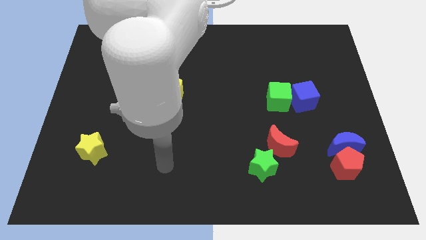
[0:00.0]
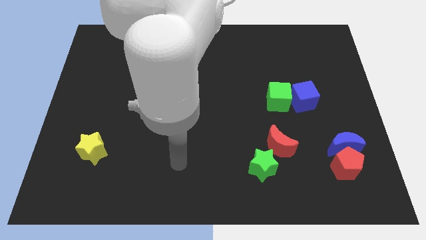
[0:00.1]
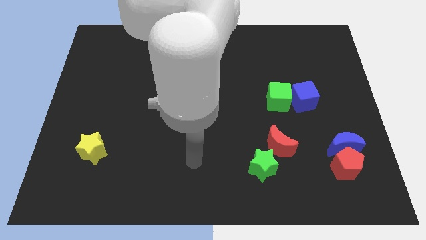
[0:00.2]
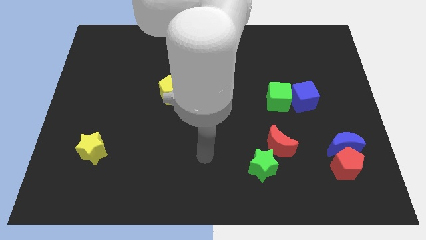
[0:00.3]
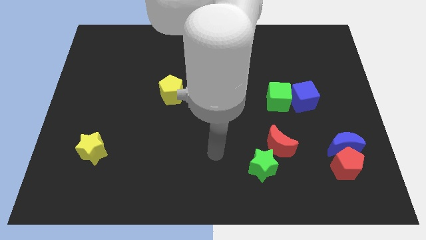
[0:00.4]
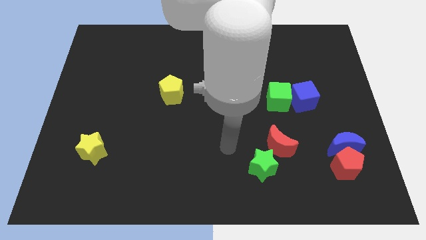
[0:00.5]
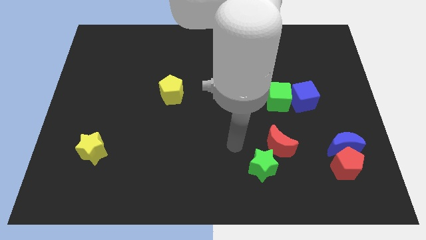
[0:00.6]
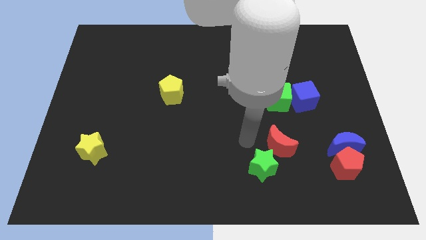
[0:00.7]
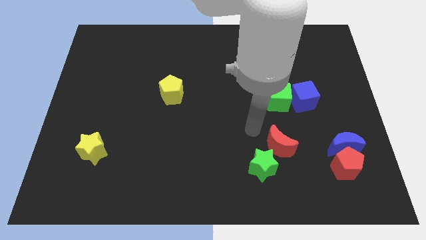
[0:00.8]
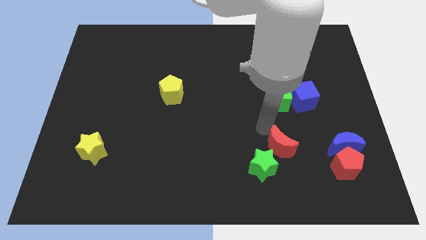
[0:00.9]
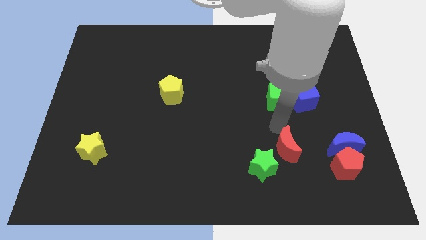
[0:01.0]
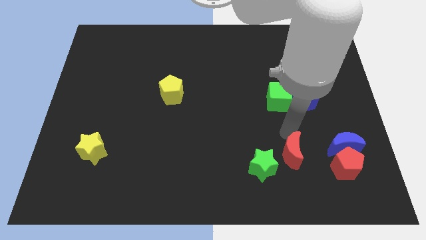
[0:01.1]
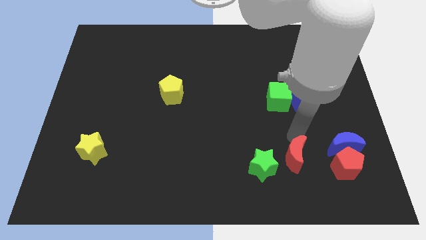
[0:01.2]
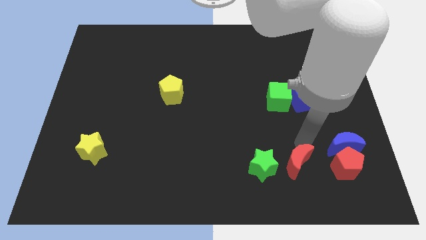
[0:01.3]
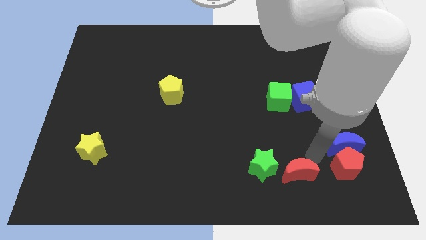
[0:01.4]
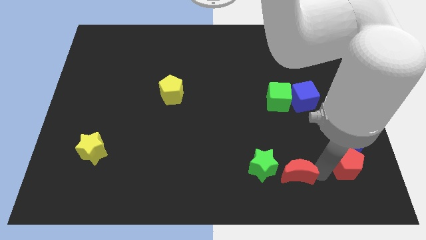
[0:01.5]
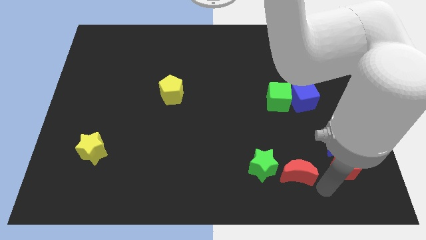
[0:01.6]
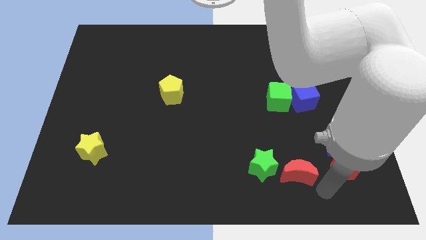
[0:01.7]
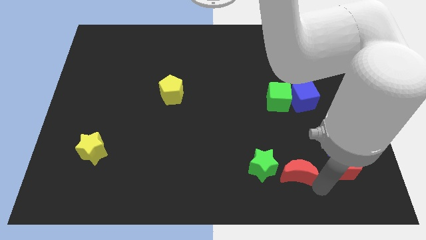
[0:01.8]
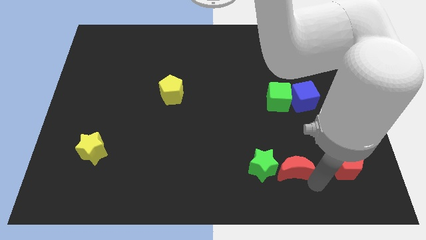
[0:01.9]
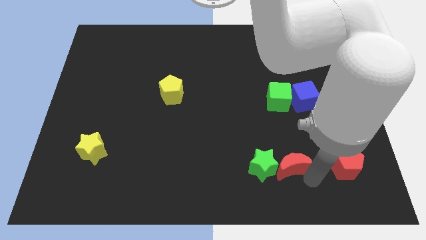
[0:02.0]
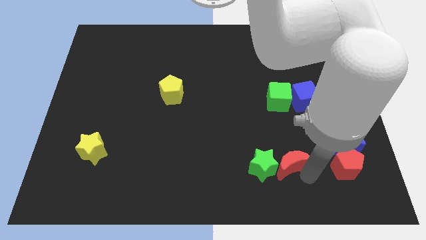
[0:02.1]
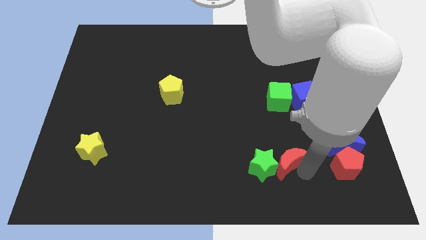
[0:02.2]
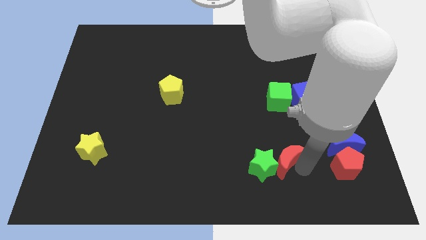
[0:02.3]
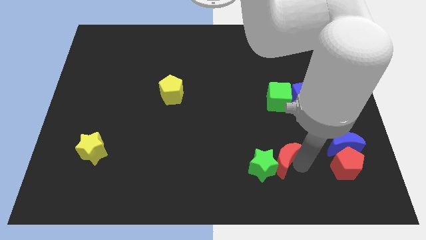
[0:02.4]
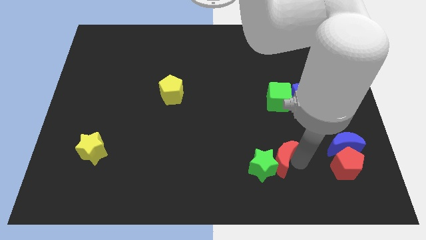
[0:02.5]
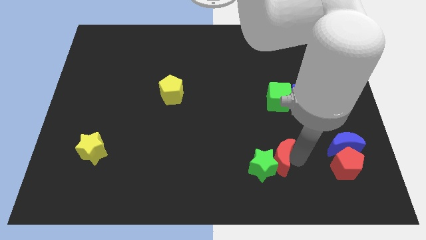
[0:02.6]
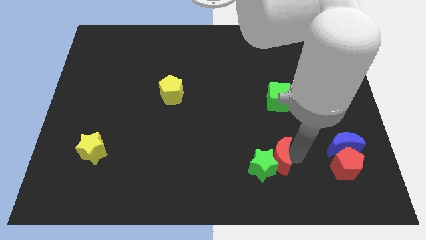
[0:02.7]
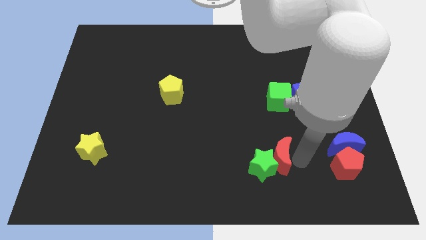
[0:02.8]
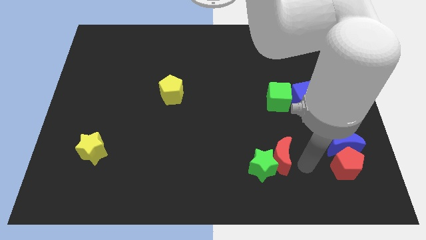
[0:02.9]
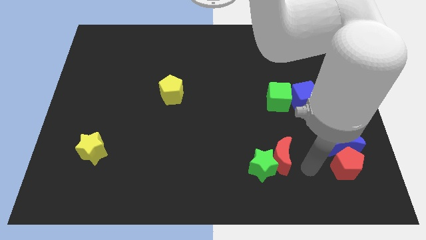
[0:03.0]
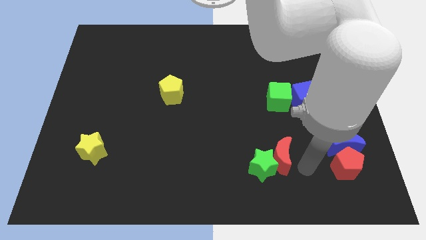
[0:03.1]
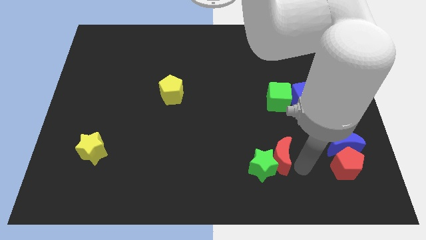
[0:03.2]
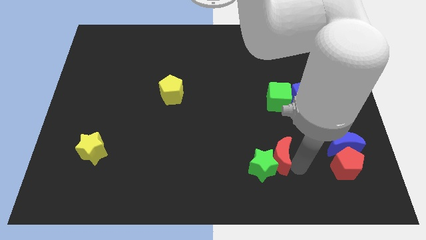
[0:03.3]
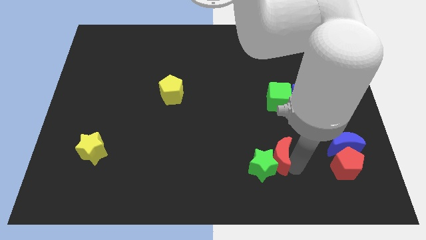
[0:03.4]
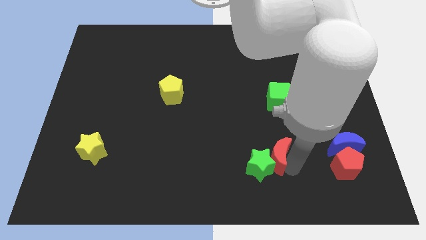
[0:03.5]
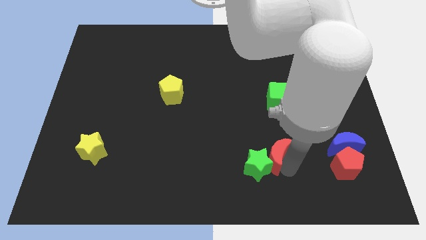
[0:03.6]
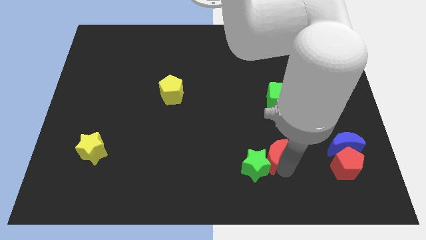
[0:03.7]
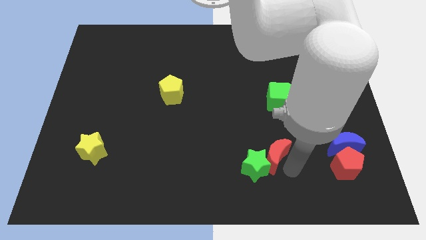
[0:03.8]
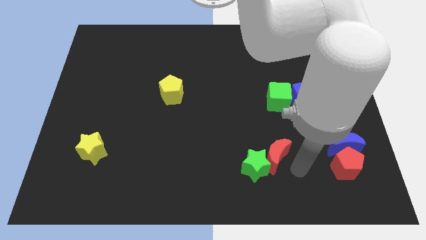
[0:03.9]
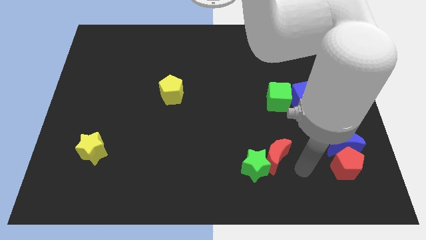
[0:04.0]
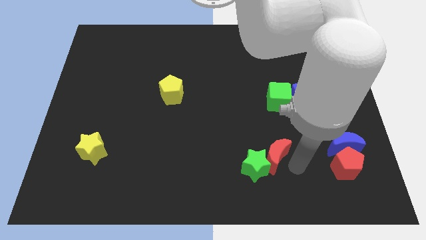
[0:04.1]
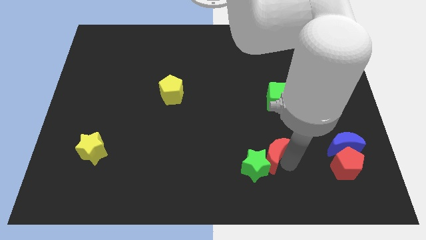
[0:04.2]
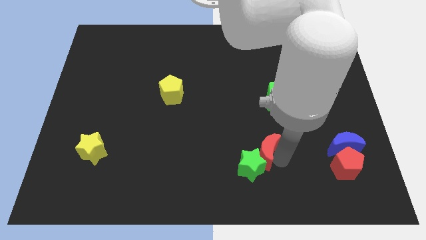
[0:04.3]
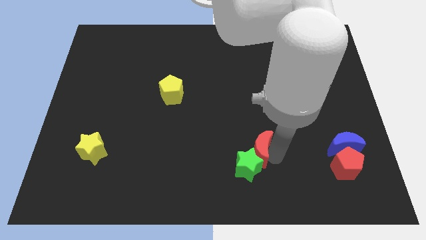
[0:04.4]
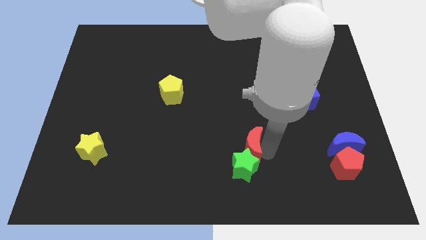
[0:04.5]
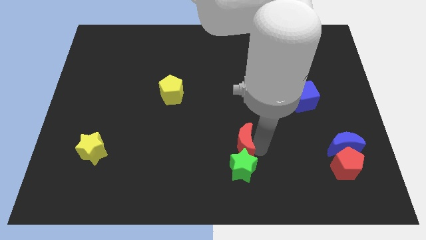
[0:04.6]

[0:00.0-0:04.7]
slightly push the red moon left

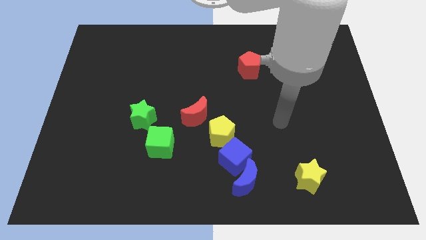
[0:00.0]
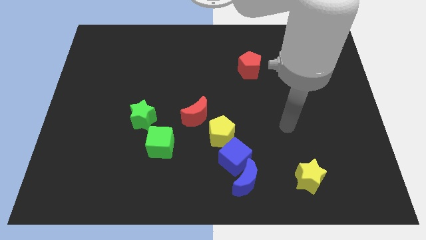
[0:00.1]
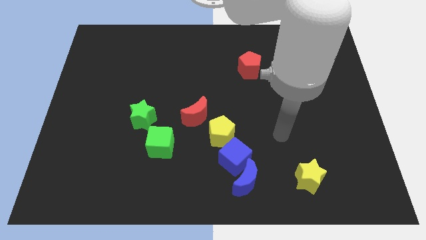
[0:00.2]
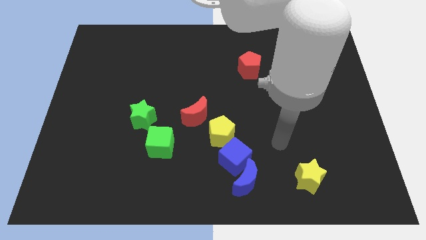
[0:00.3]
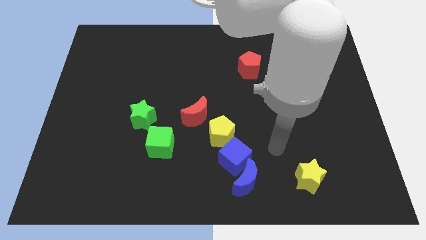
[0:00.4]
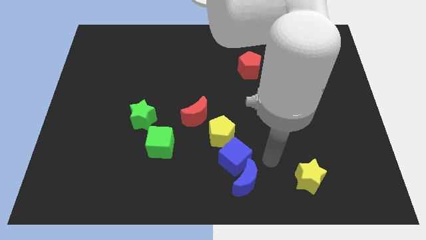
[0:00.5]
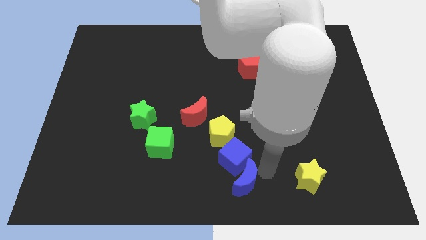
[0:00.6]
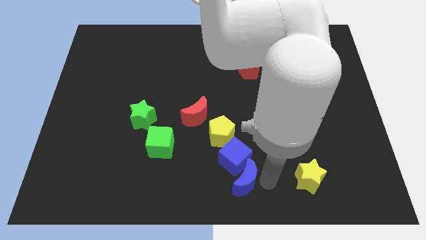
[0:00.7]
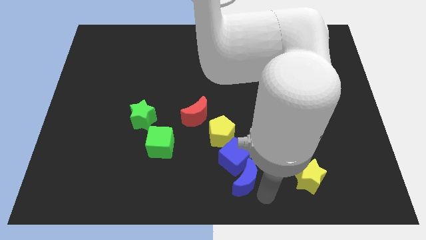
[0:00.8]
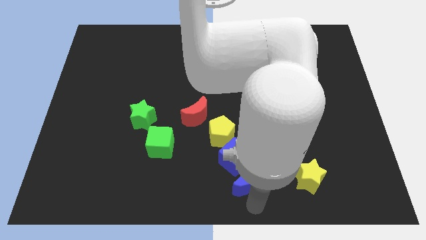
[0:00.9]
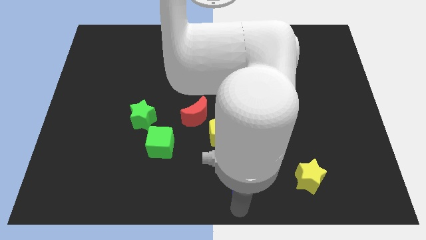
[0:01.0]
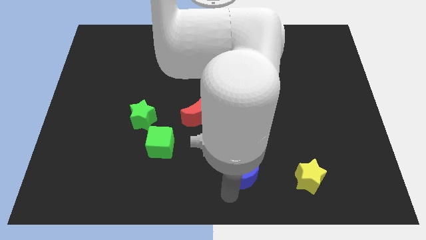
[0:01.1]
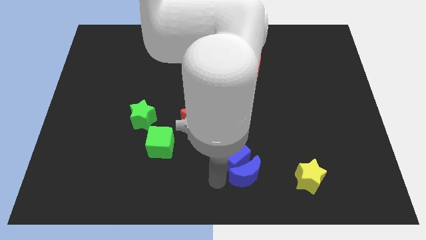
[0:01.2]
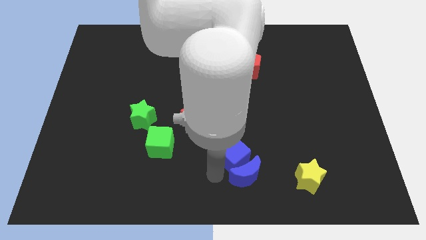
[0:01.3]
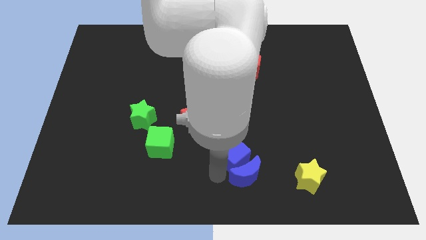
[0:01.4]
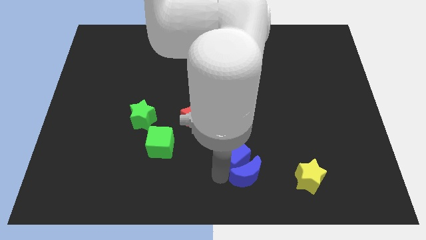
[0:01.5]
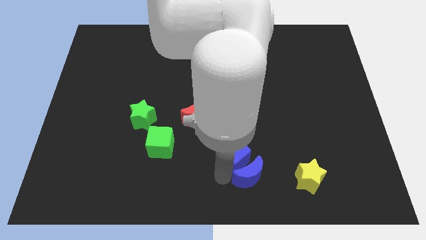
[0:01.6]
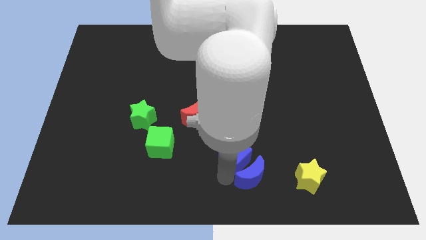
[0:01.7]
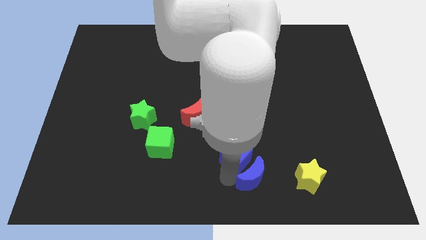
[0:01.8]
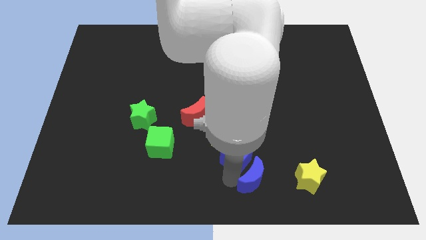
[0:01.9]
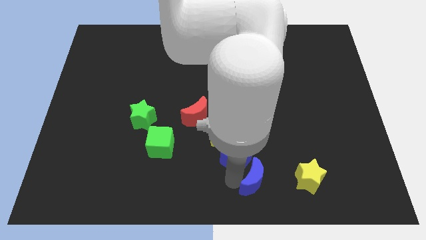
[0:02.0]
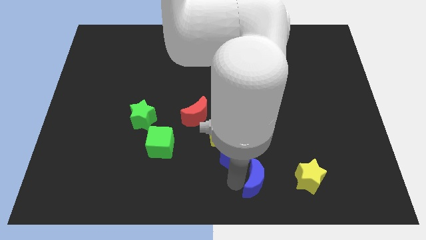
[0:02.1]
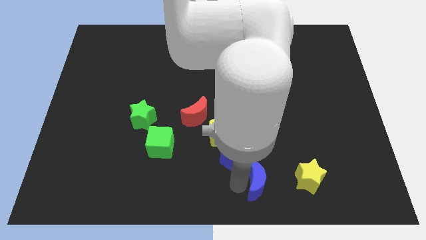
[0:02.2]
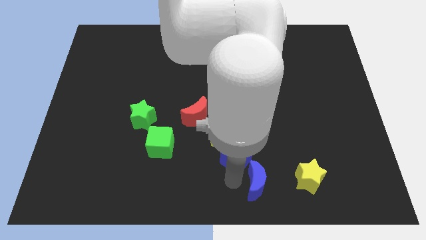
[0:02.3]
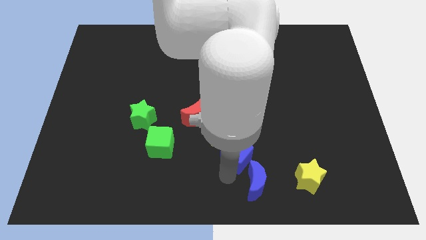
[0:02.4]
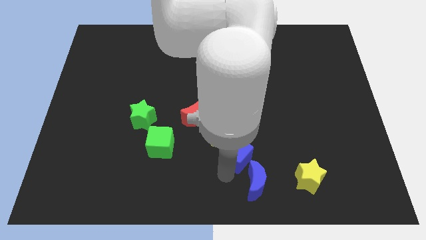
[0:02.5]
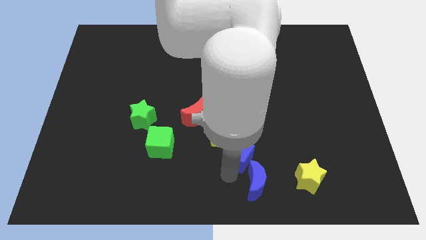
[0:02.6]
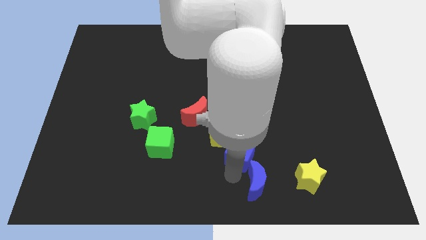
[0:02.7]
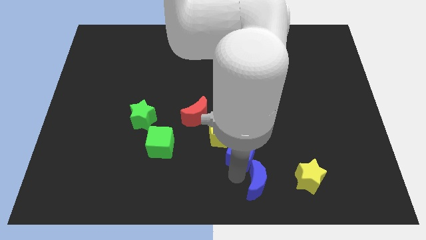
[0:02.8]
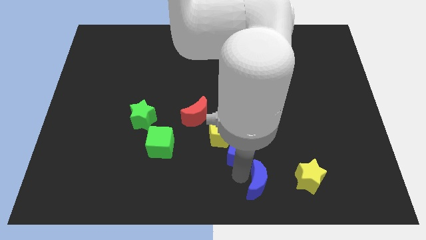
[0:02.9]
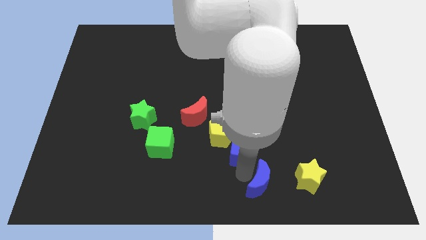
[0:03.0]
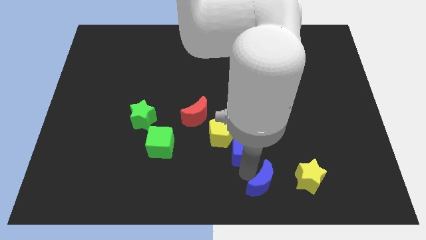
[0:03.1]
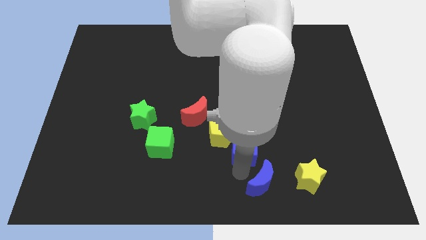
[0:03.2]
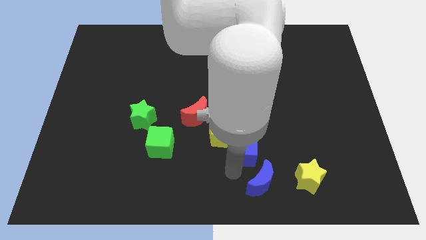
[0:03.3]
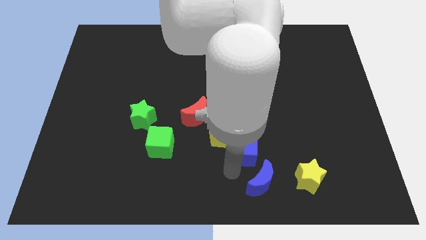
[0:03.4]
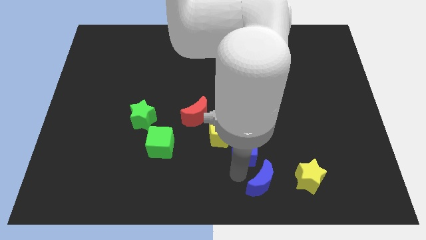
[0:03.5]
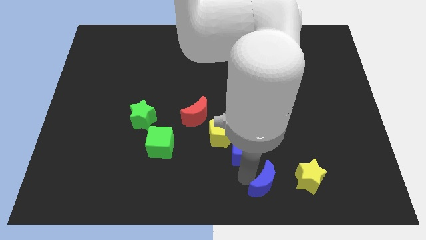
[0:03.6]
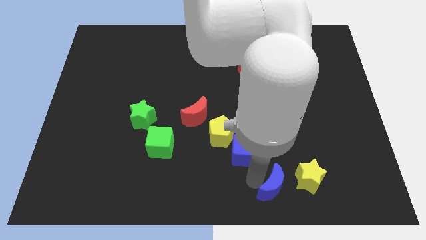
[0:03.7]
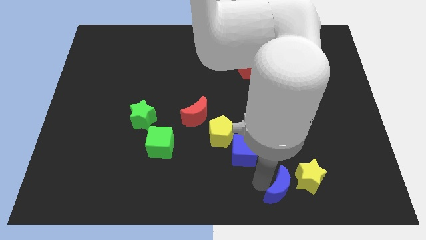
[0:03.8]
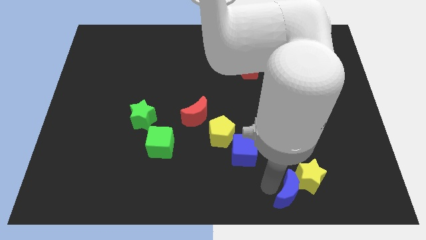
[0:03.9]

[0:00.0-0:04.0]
slightly slide the blue moon right
